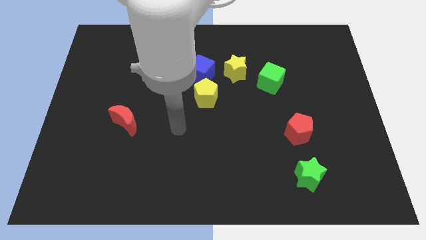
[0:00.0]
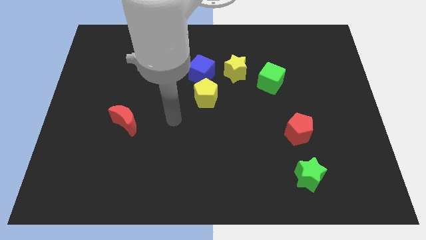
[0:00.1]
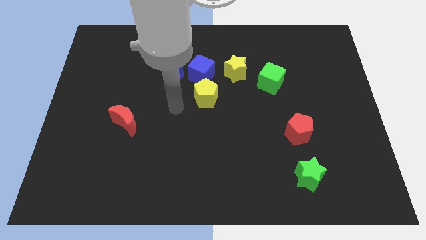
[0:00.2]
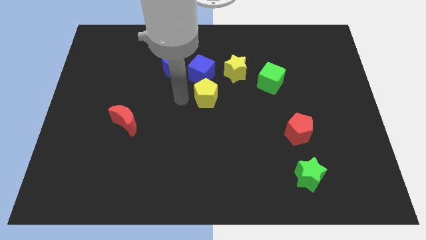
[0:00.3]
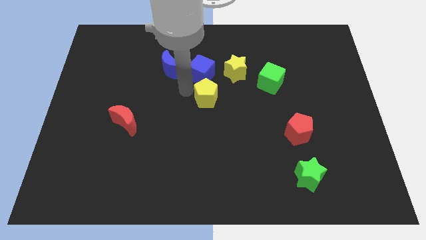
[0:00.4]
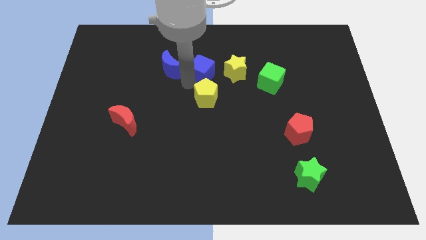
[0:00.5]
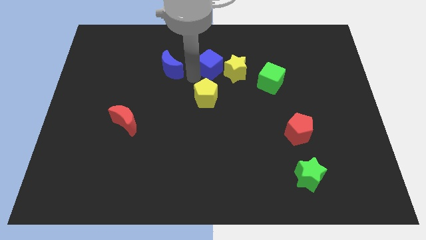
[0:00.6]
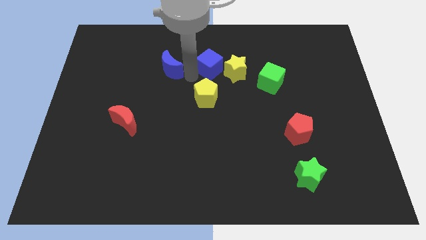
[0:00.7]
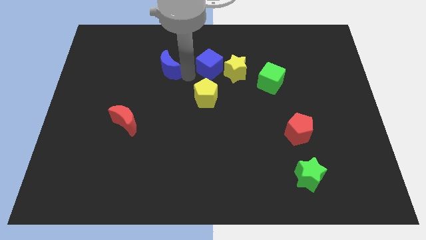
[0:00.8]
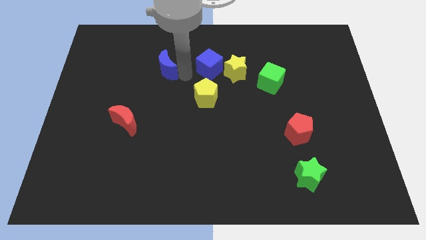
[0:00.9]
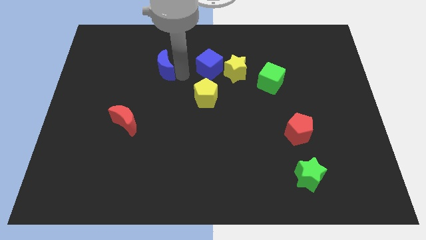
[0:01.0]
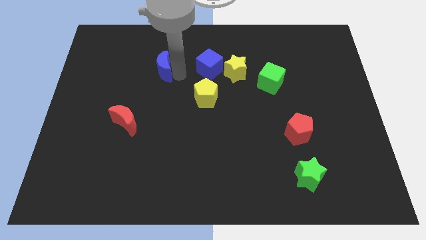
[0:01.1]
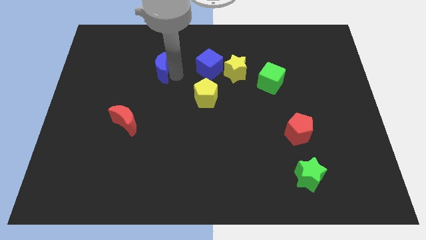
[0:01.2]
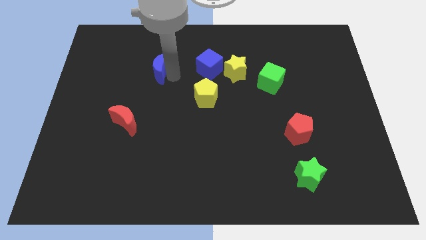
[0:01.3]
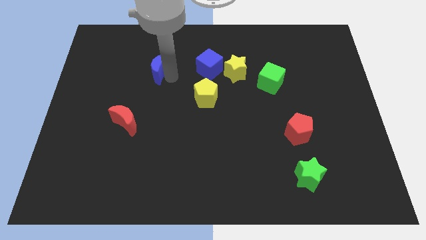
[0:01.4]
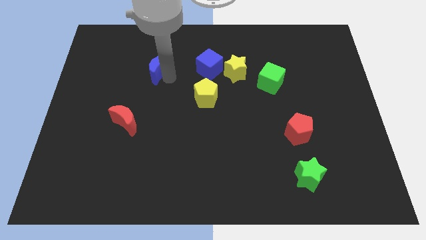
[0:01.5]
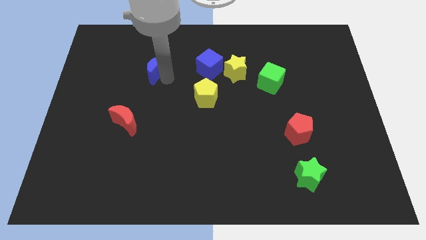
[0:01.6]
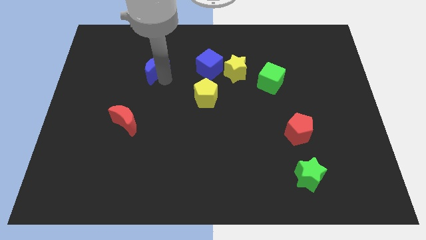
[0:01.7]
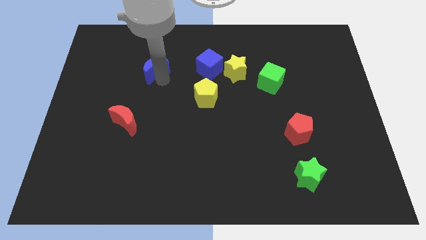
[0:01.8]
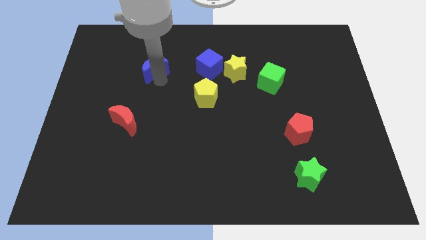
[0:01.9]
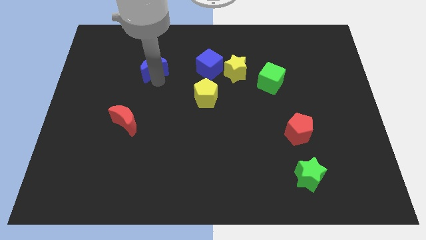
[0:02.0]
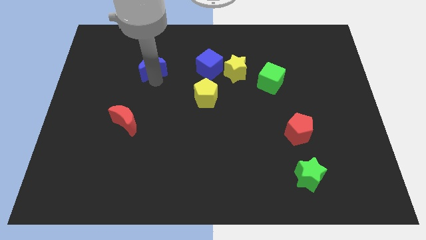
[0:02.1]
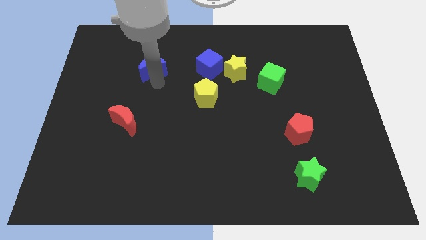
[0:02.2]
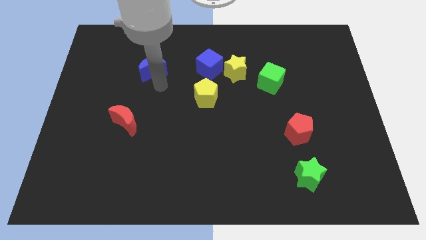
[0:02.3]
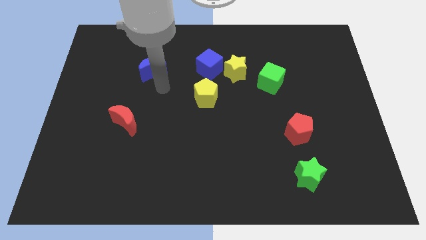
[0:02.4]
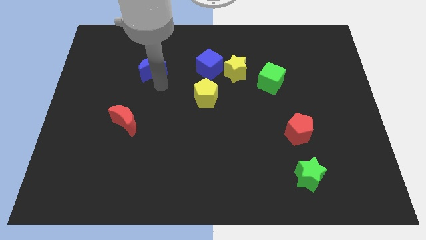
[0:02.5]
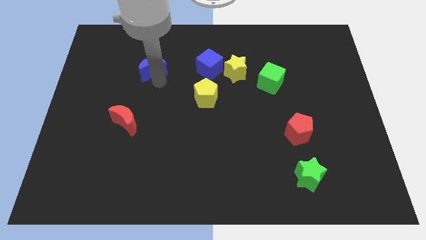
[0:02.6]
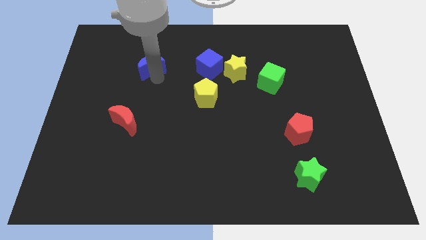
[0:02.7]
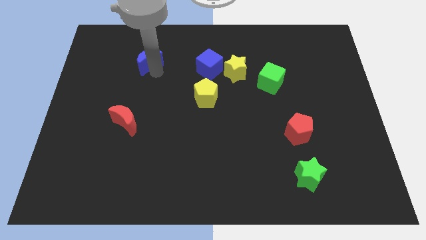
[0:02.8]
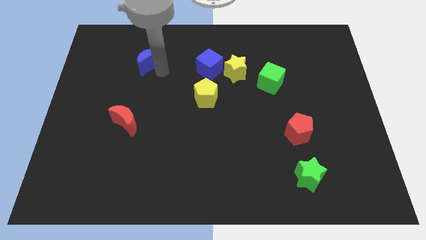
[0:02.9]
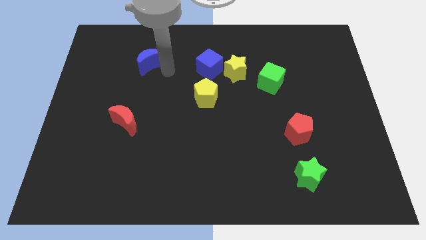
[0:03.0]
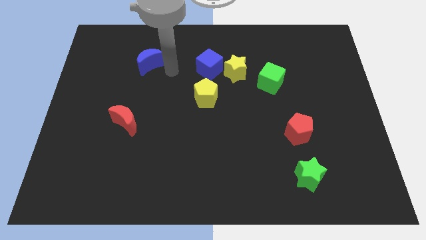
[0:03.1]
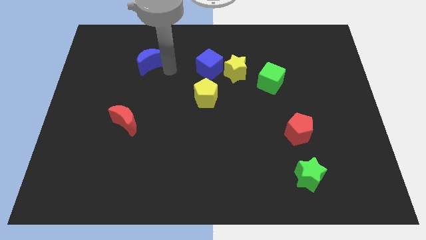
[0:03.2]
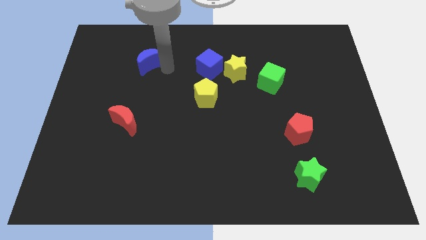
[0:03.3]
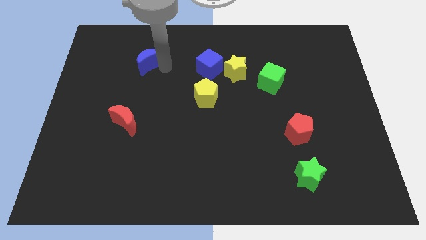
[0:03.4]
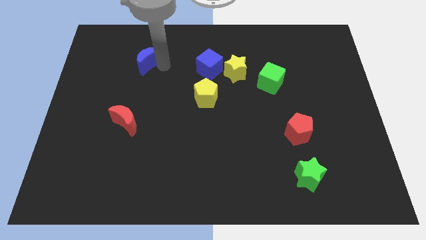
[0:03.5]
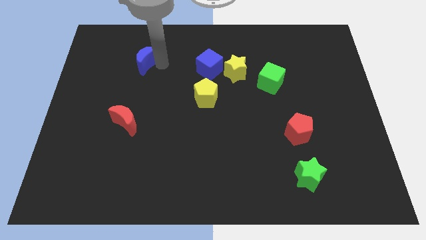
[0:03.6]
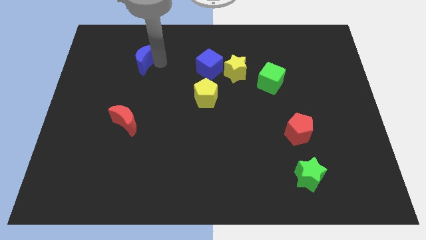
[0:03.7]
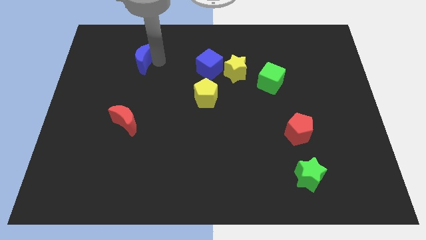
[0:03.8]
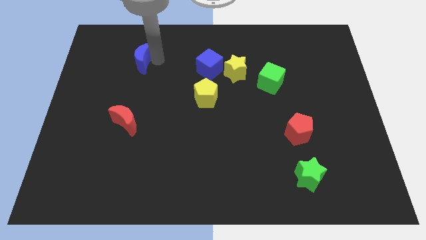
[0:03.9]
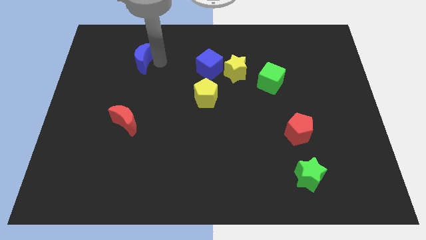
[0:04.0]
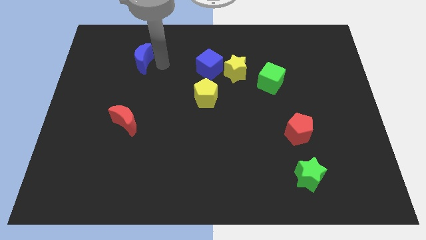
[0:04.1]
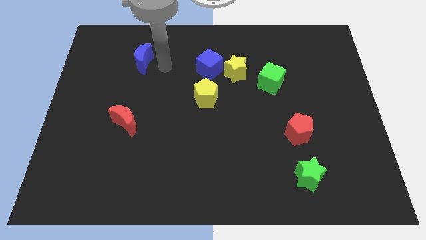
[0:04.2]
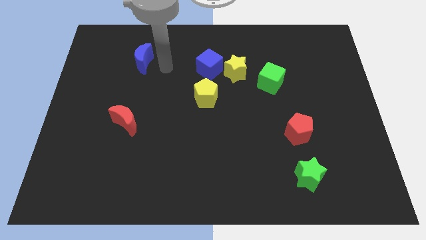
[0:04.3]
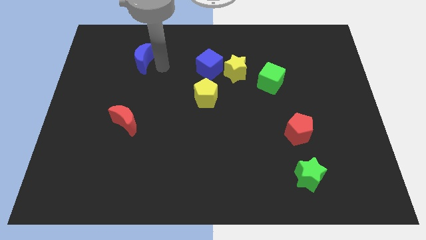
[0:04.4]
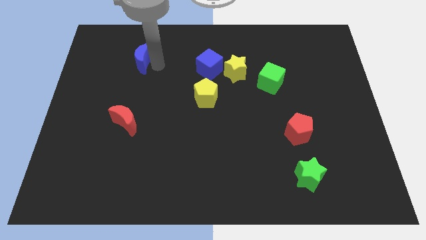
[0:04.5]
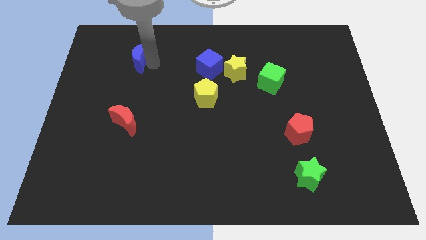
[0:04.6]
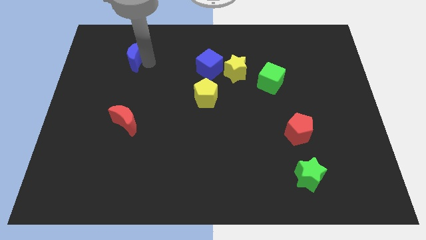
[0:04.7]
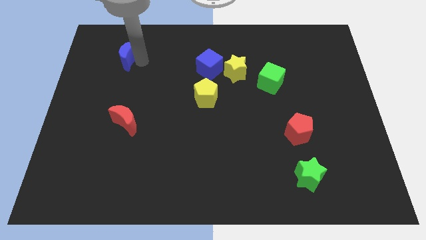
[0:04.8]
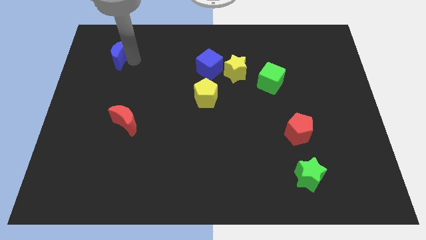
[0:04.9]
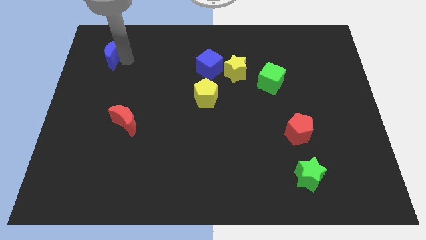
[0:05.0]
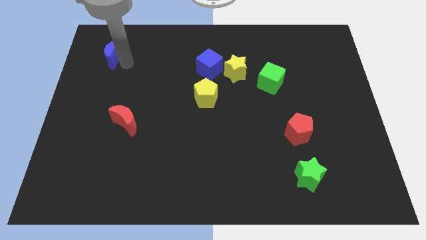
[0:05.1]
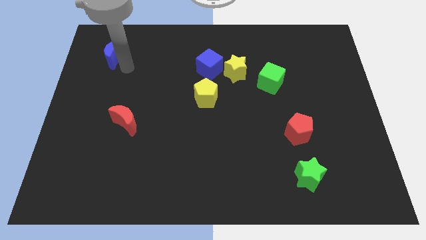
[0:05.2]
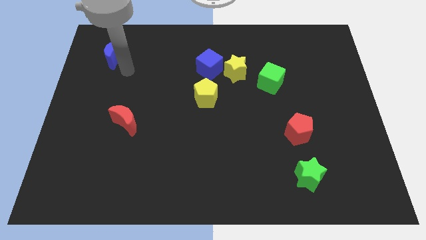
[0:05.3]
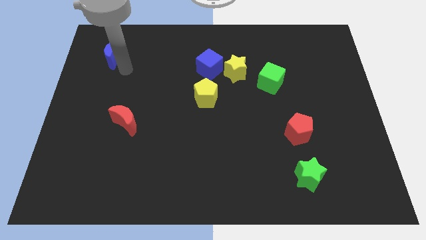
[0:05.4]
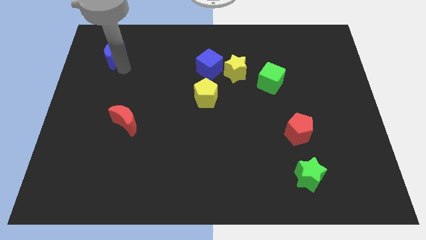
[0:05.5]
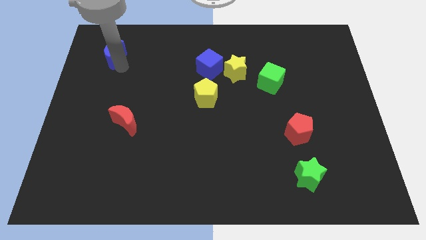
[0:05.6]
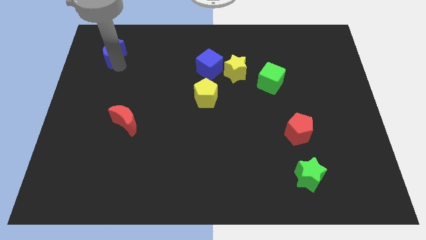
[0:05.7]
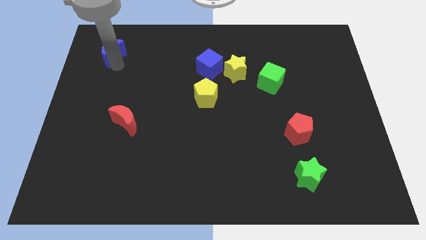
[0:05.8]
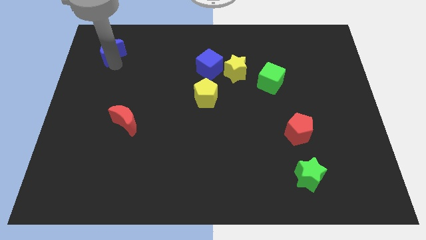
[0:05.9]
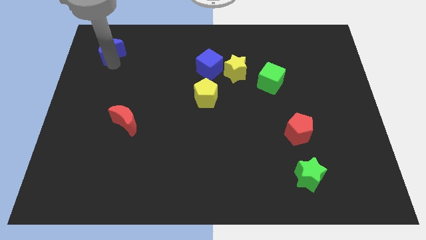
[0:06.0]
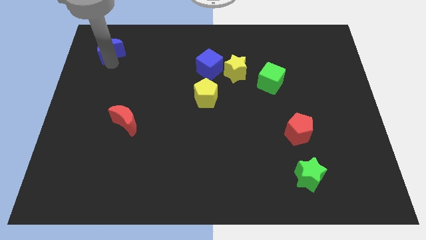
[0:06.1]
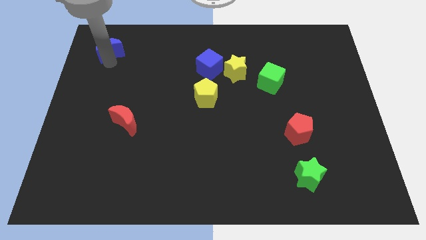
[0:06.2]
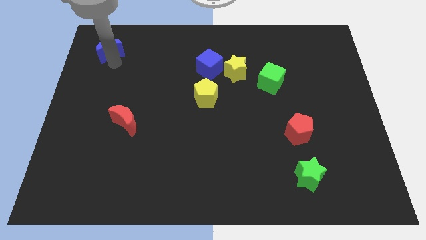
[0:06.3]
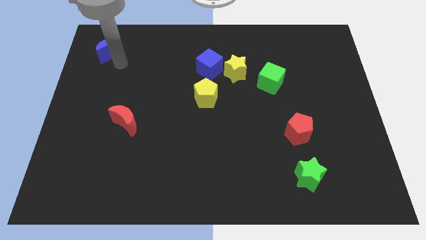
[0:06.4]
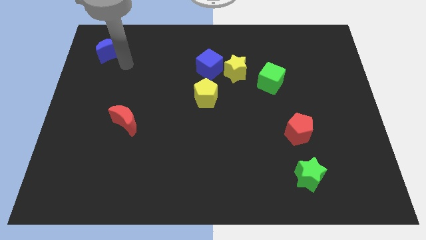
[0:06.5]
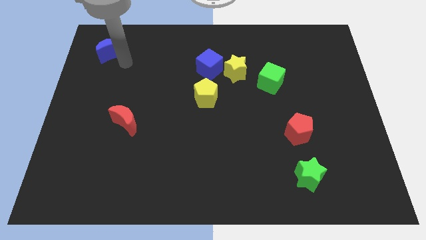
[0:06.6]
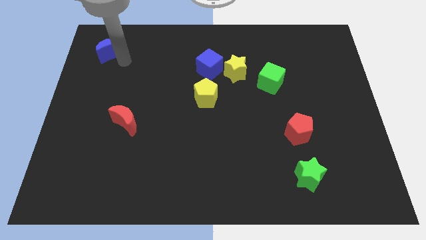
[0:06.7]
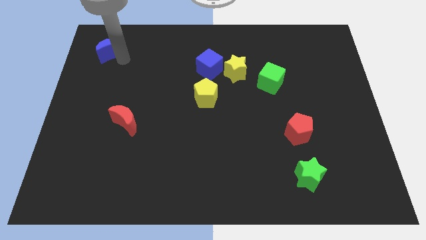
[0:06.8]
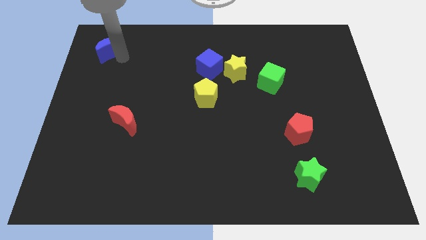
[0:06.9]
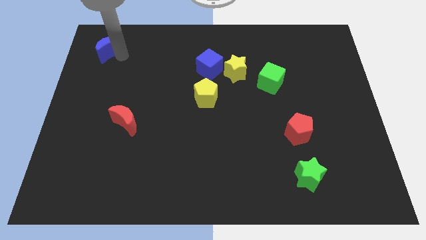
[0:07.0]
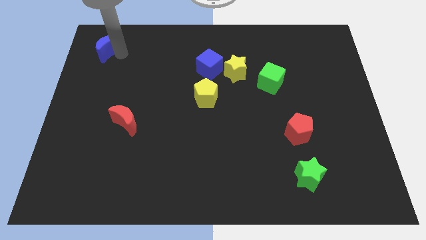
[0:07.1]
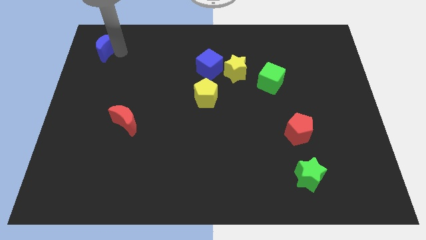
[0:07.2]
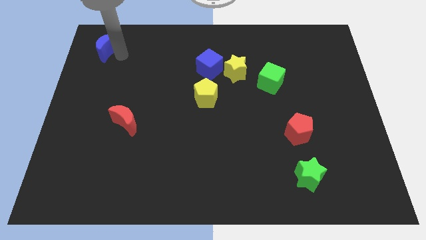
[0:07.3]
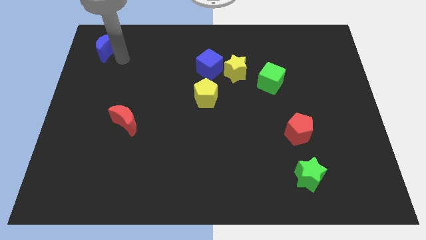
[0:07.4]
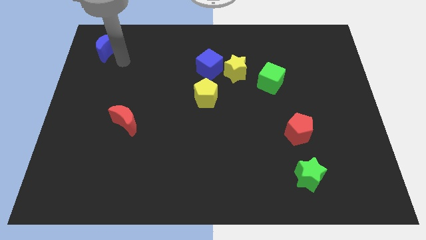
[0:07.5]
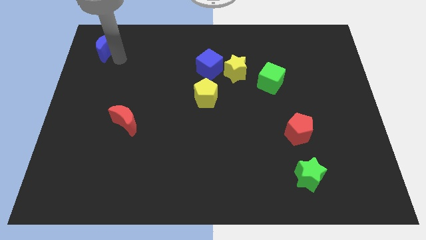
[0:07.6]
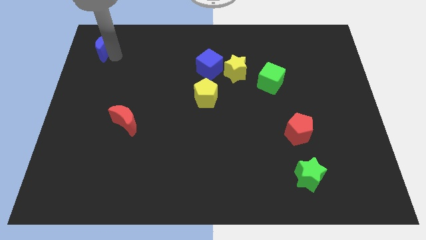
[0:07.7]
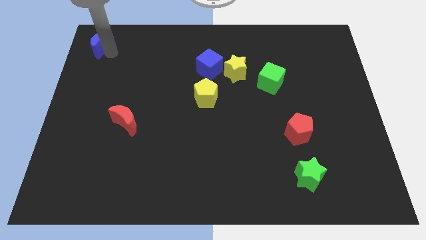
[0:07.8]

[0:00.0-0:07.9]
slide the blue moon to the top left
